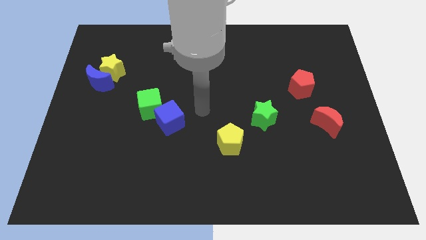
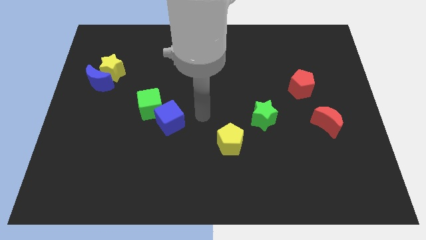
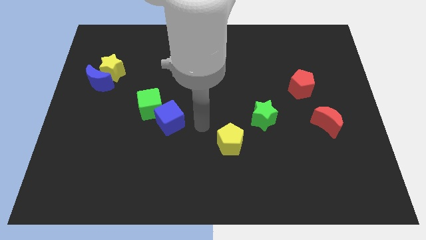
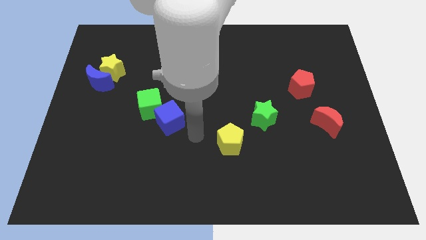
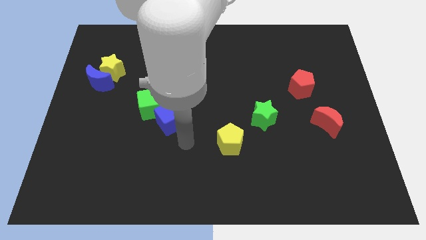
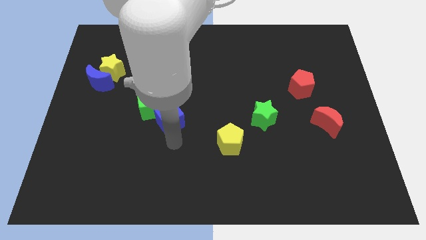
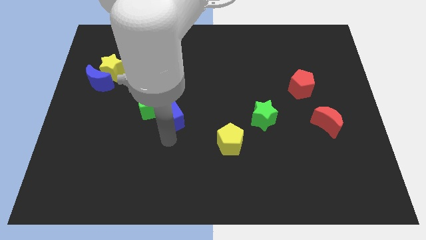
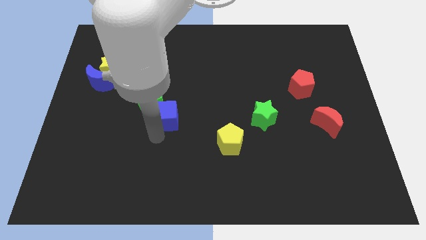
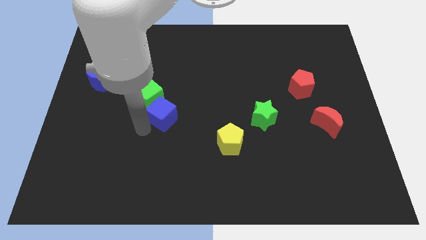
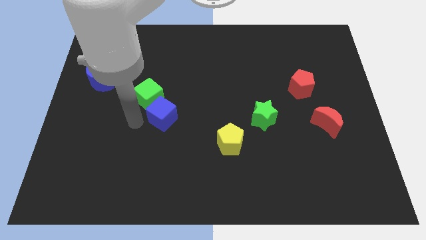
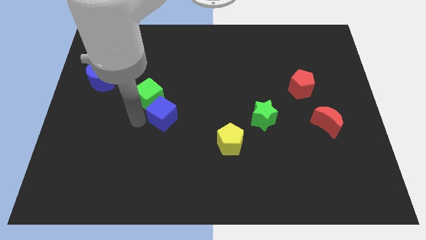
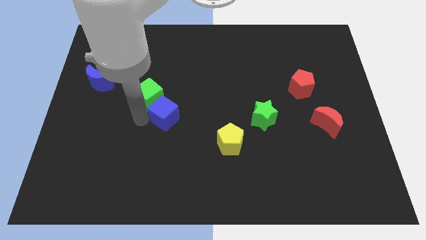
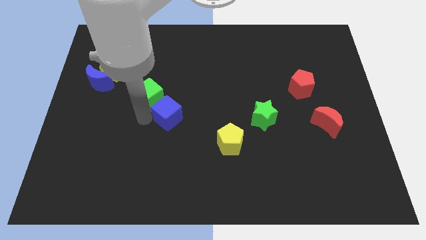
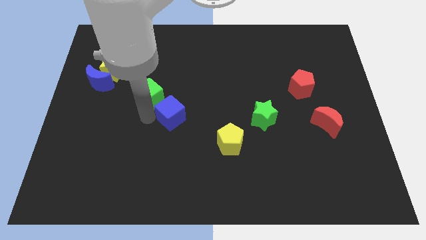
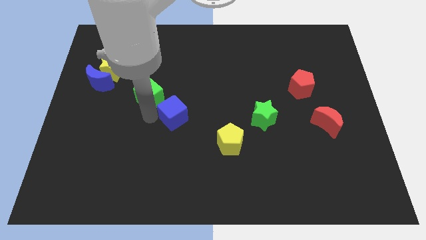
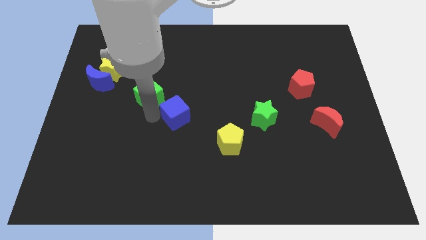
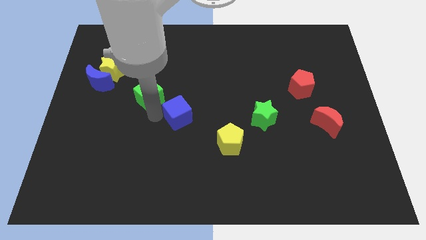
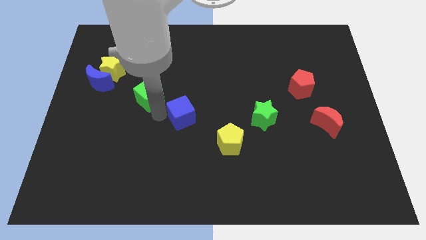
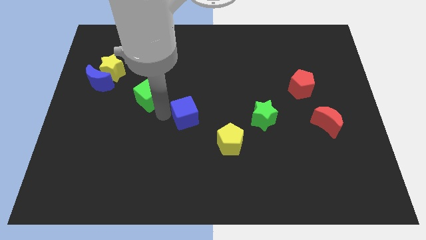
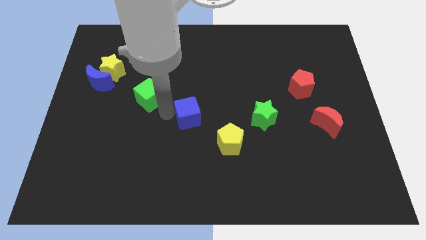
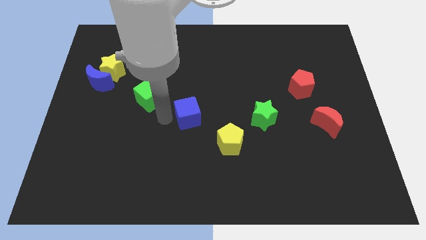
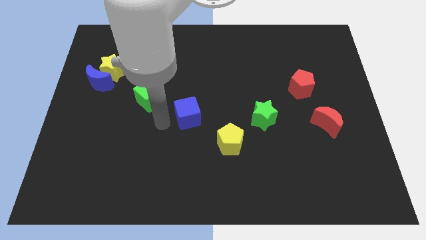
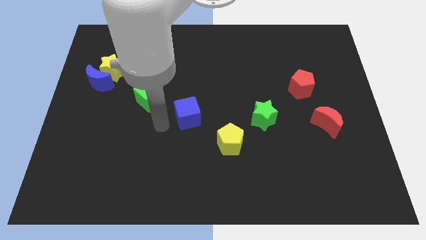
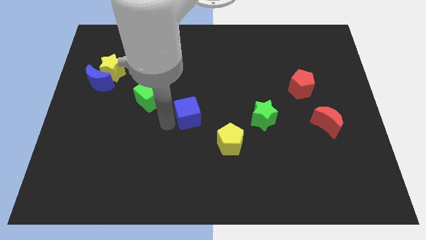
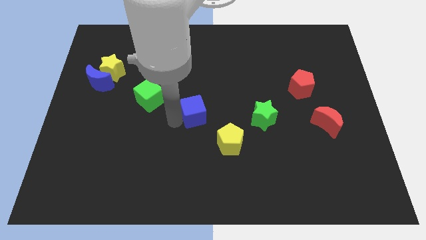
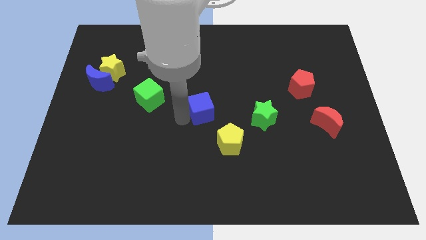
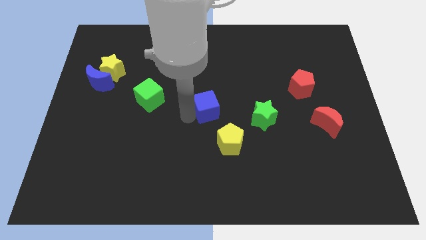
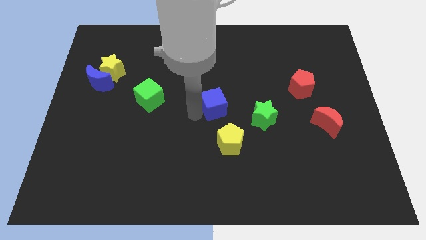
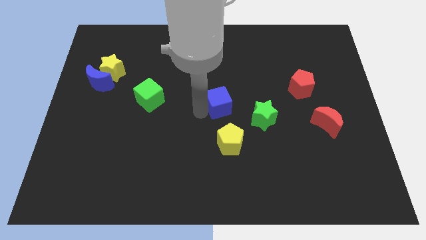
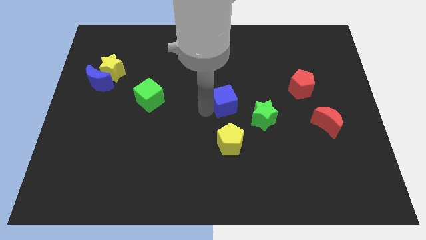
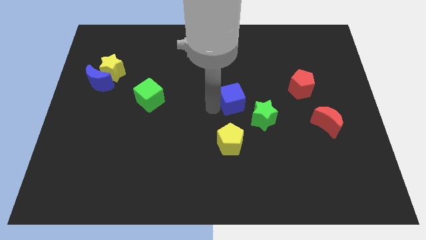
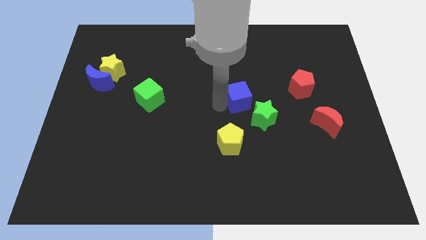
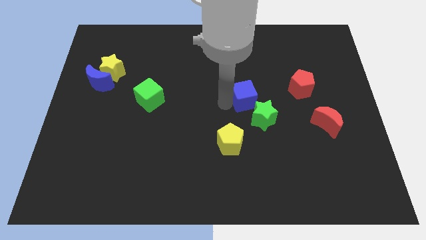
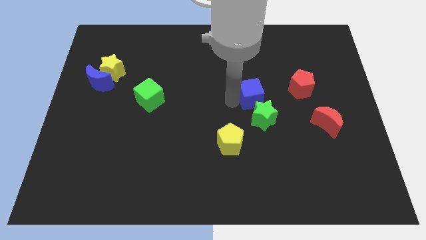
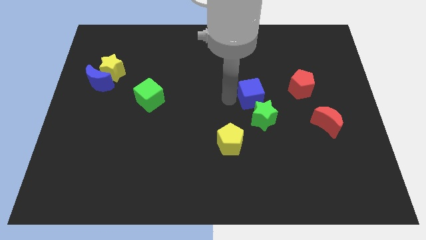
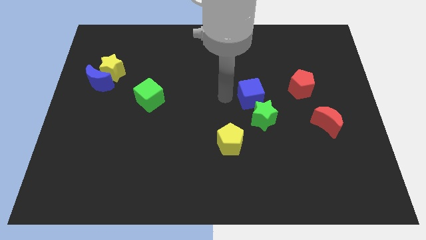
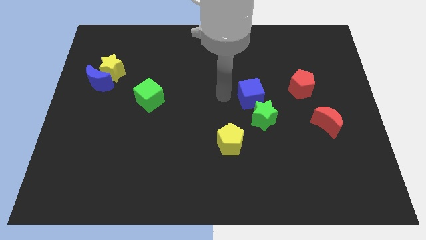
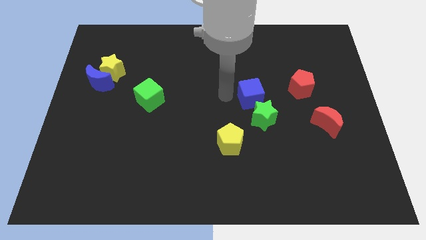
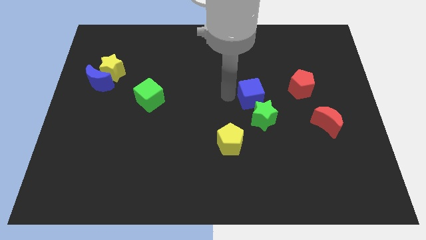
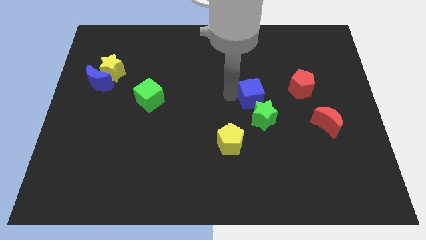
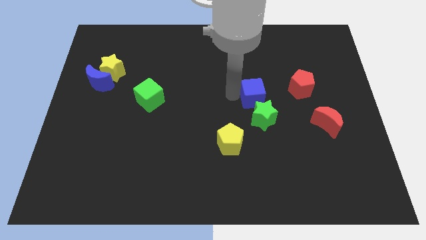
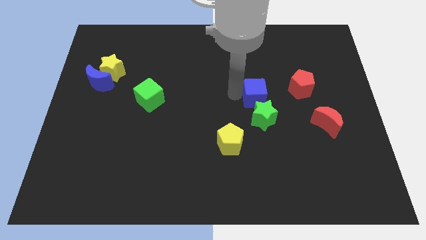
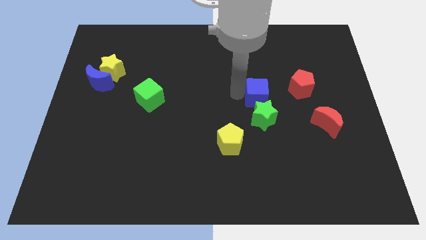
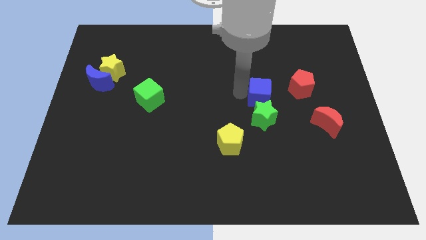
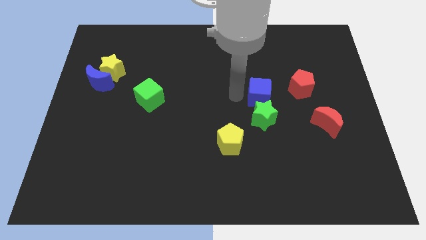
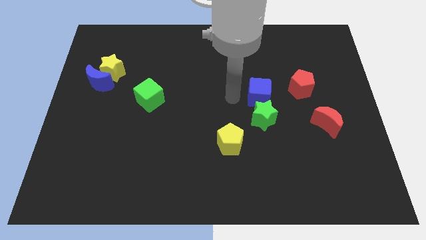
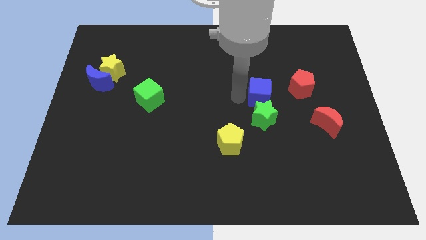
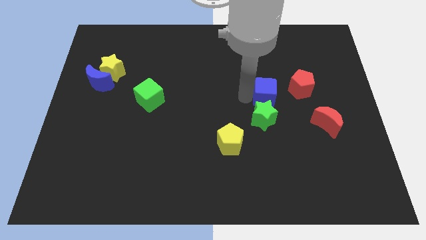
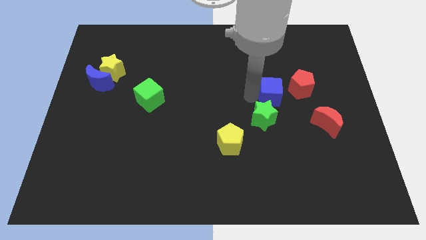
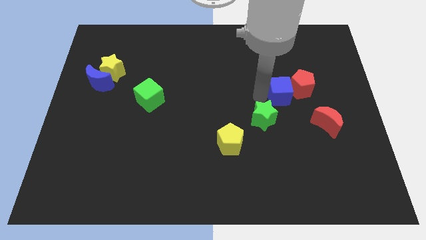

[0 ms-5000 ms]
move the blue cube next to the red pentagon

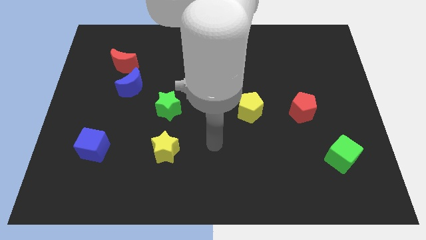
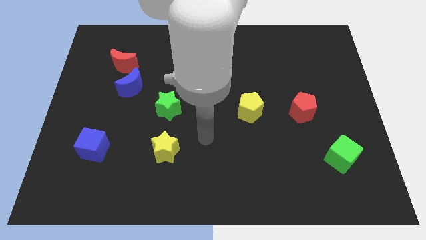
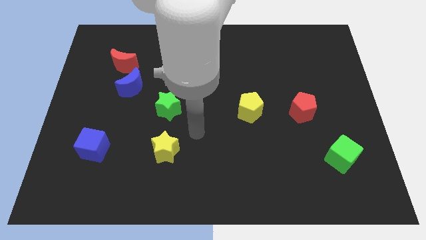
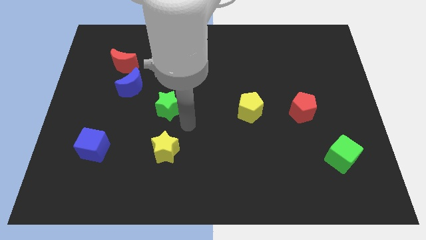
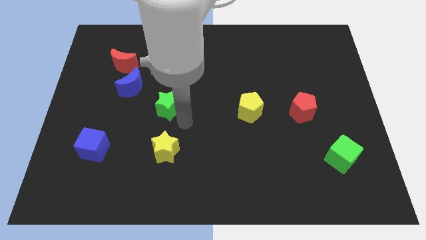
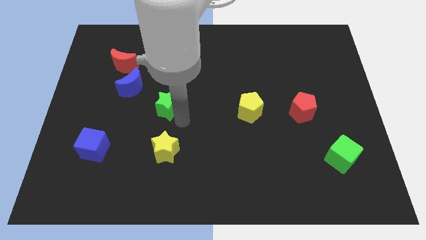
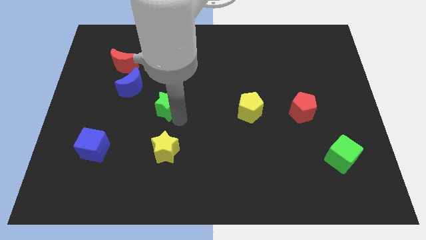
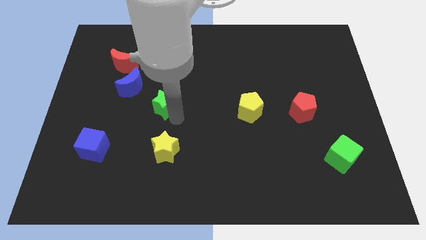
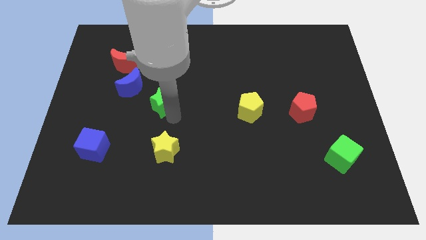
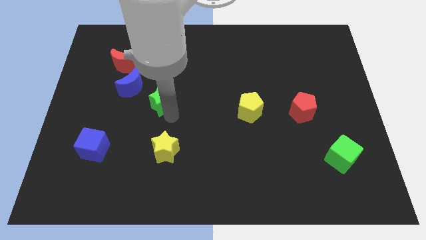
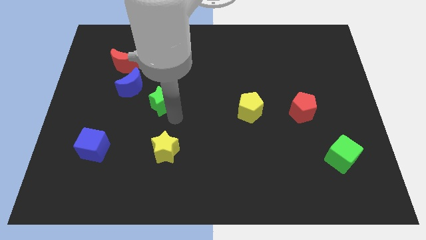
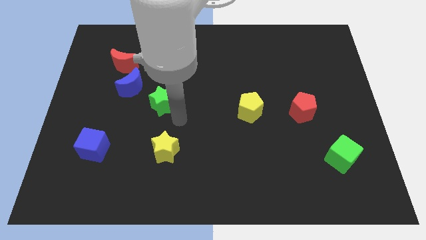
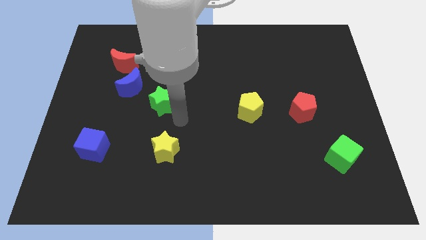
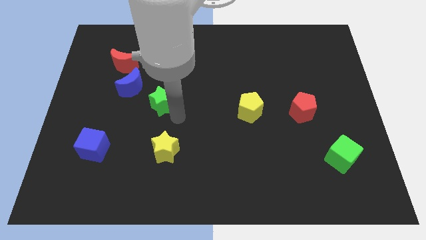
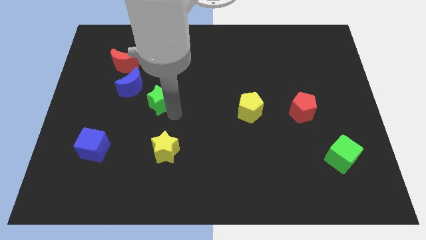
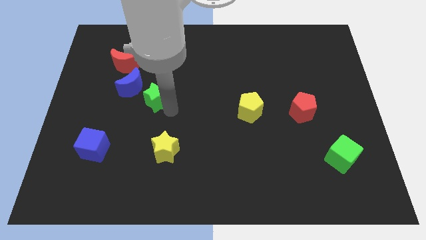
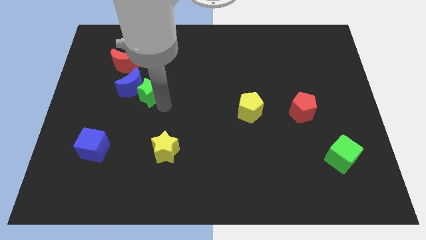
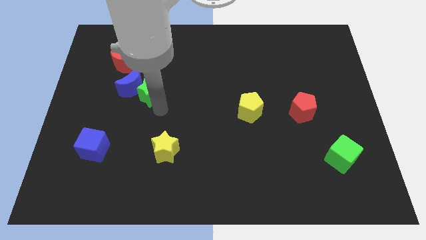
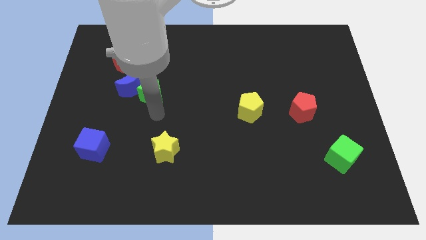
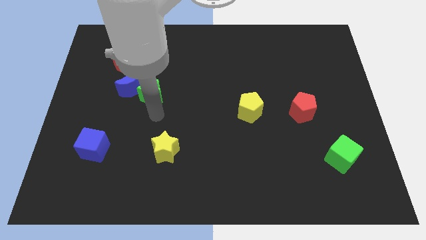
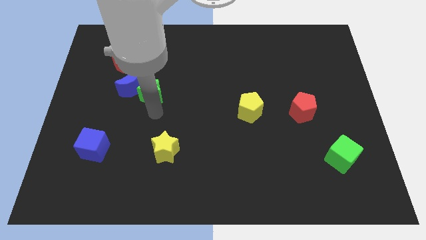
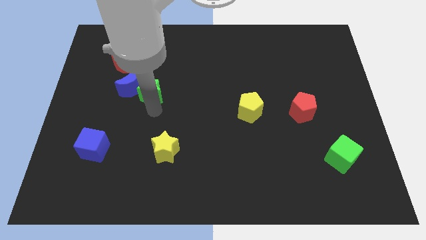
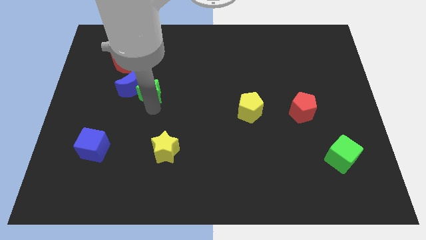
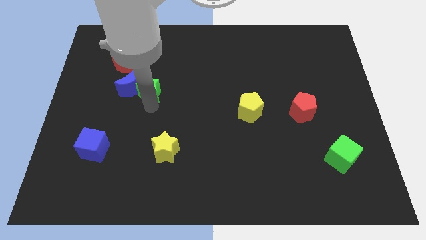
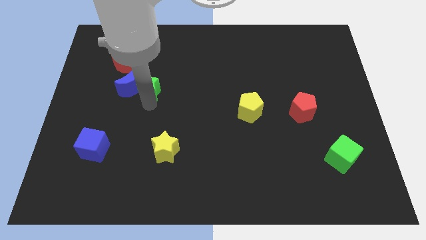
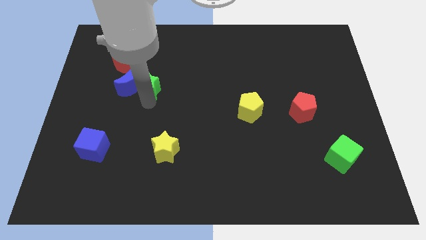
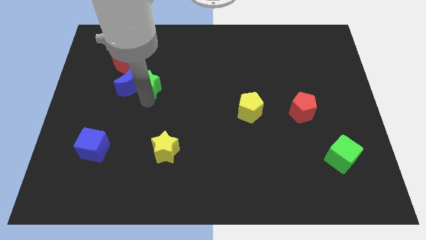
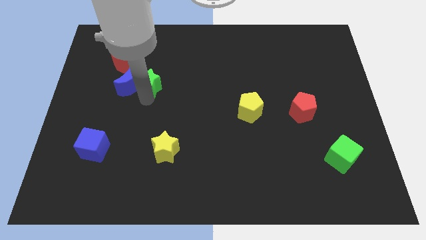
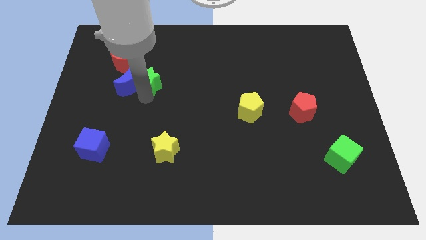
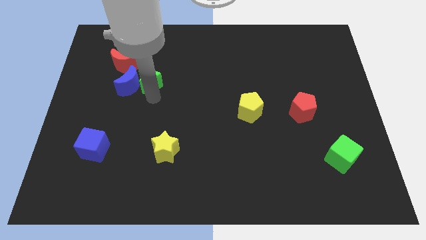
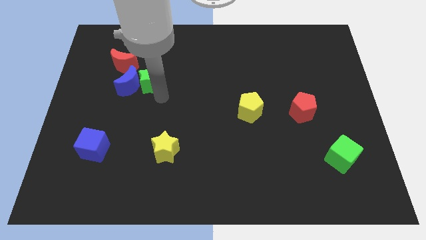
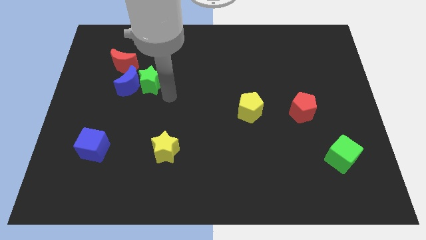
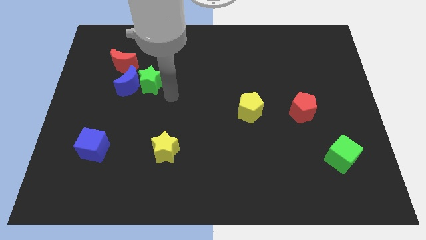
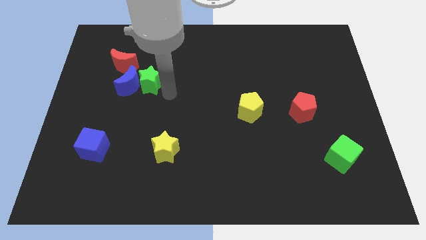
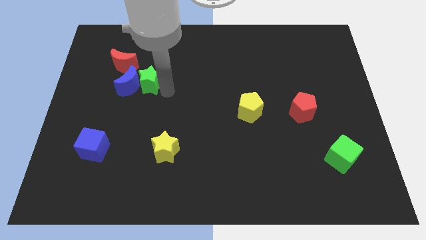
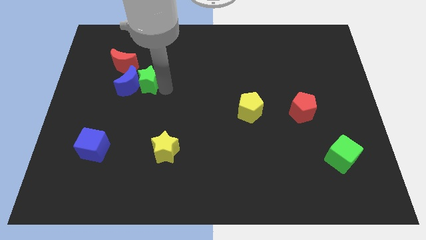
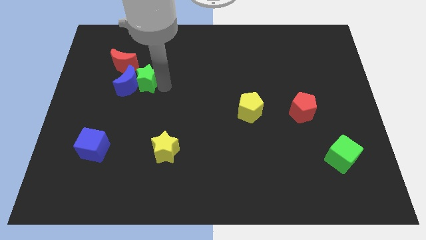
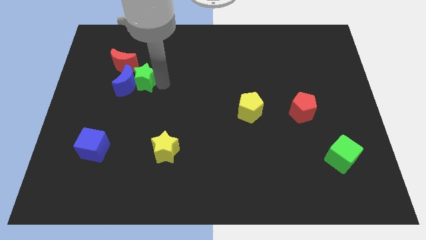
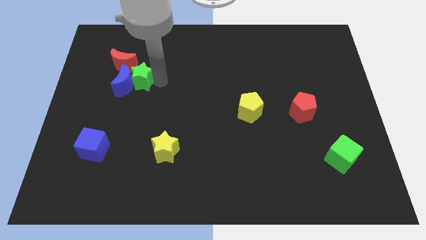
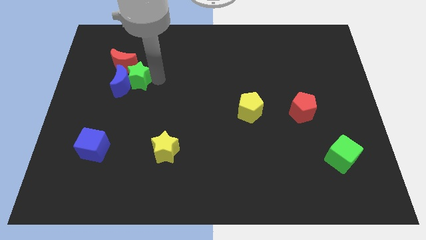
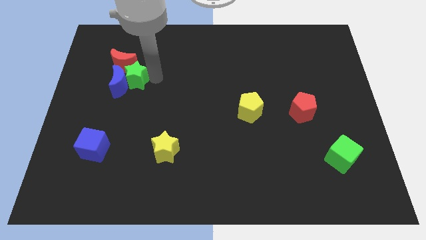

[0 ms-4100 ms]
move the green star to the red moon
